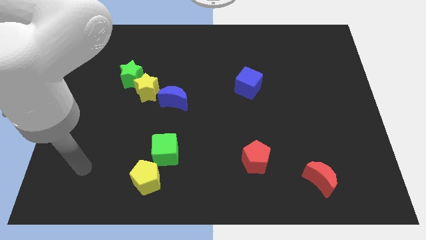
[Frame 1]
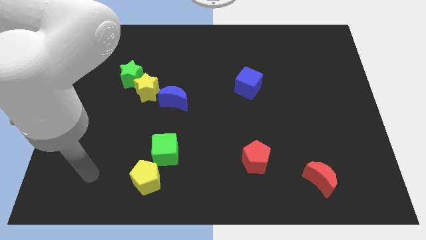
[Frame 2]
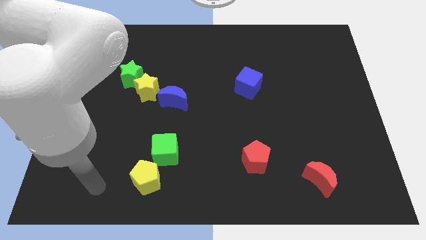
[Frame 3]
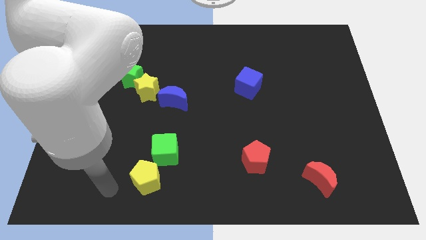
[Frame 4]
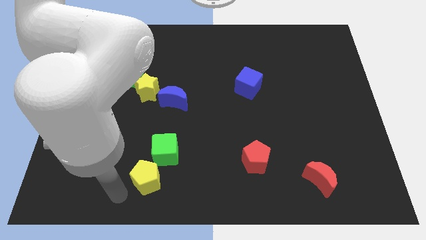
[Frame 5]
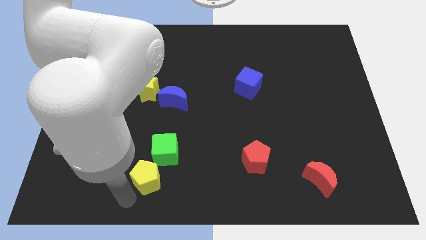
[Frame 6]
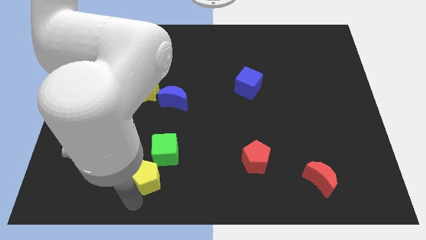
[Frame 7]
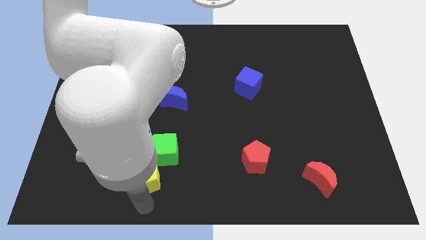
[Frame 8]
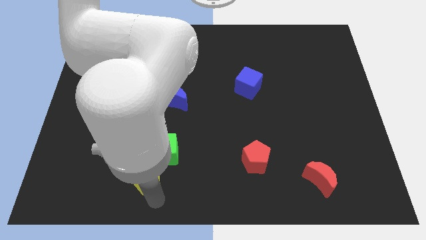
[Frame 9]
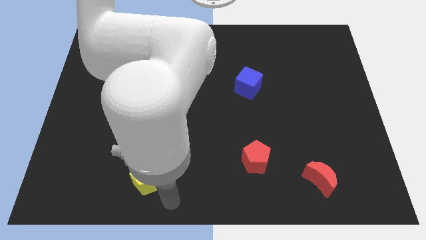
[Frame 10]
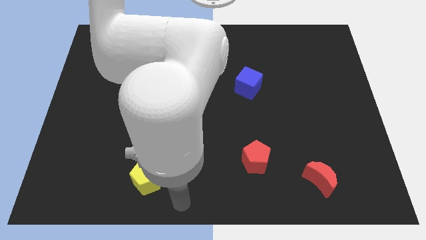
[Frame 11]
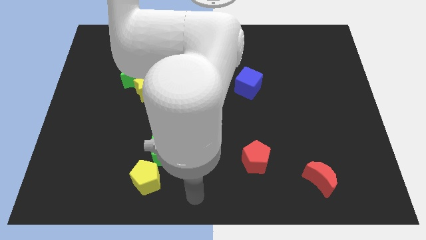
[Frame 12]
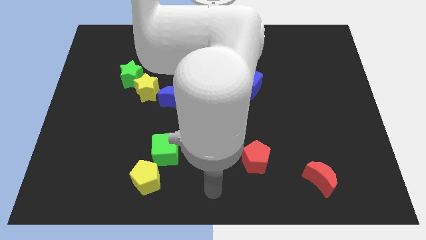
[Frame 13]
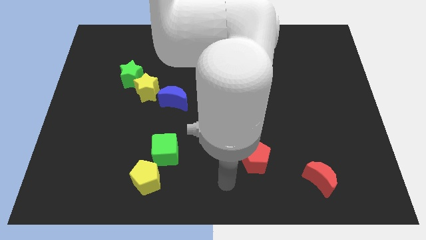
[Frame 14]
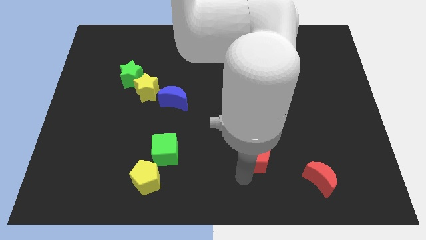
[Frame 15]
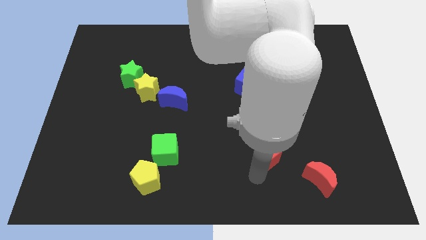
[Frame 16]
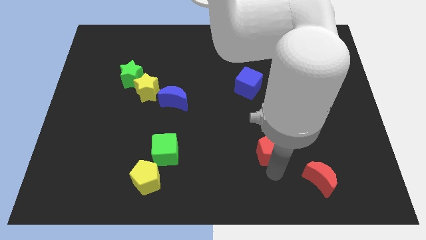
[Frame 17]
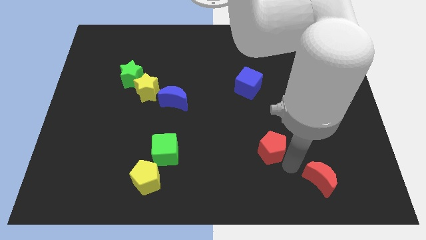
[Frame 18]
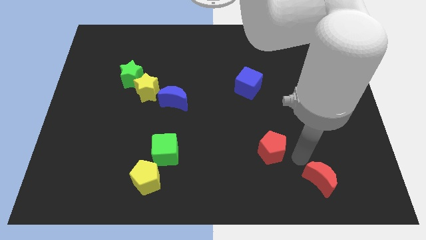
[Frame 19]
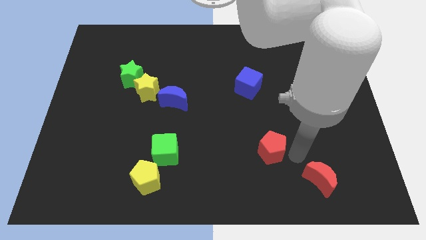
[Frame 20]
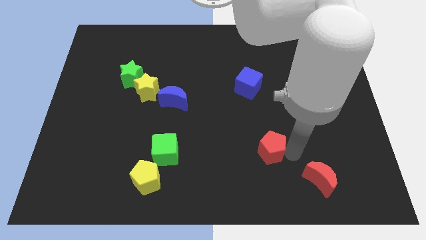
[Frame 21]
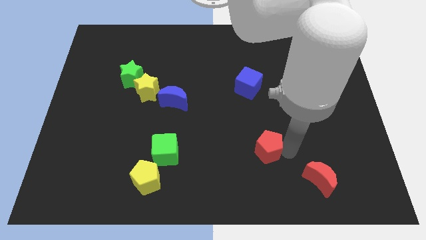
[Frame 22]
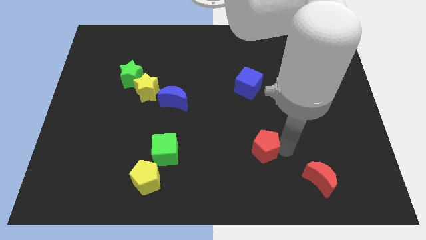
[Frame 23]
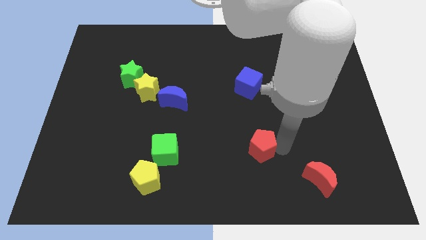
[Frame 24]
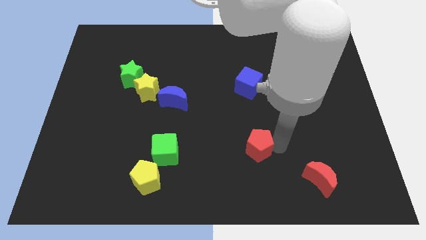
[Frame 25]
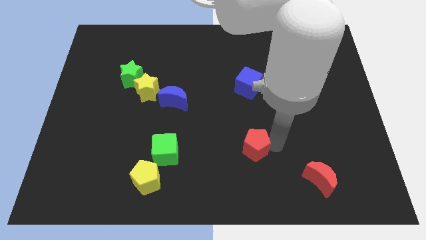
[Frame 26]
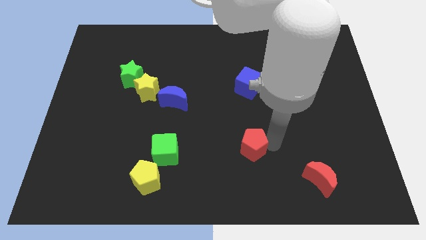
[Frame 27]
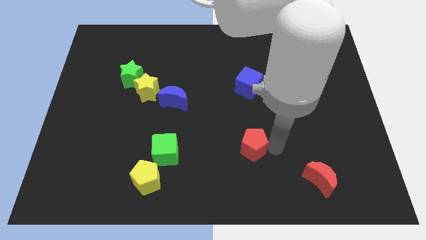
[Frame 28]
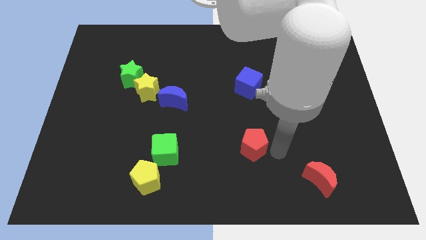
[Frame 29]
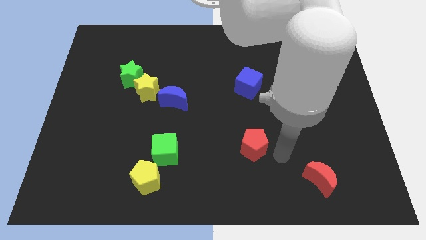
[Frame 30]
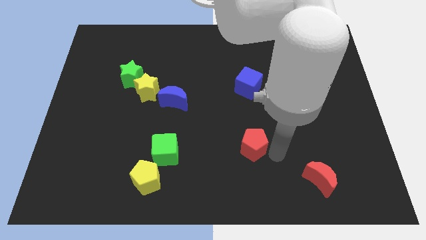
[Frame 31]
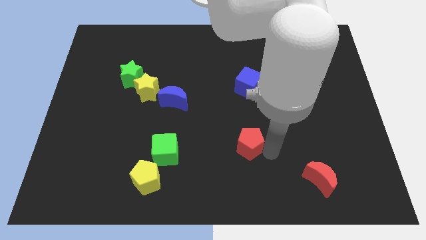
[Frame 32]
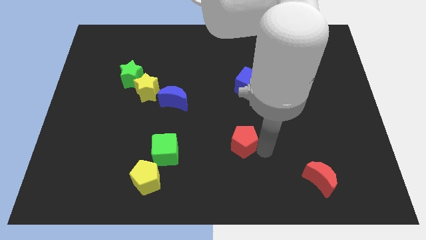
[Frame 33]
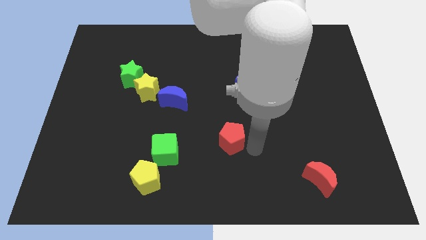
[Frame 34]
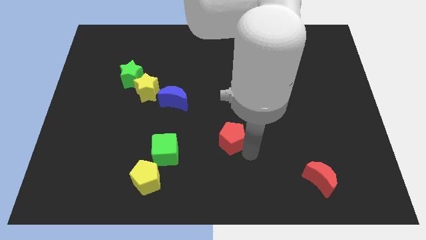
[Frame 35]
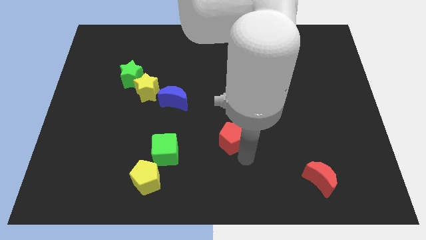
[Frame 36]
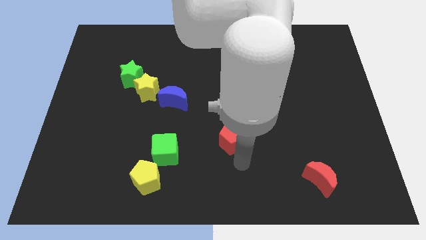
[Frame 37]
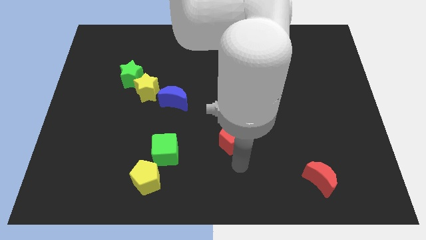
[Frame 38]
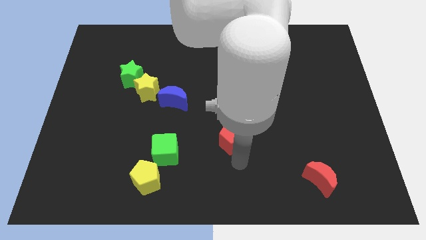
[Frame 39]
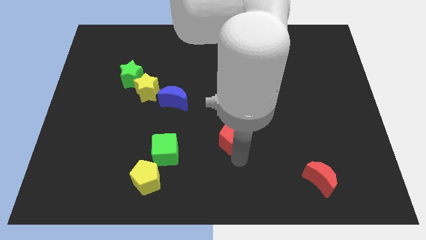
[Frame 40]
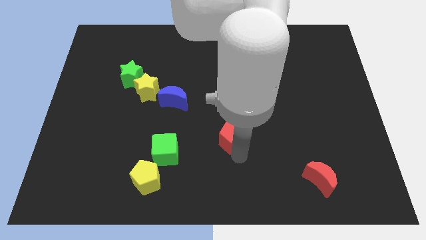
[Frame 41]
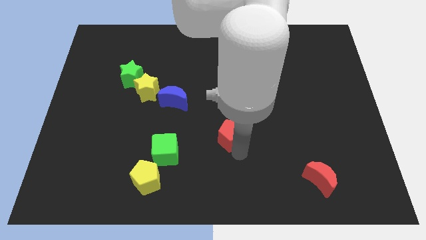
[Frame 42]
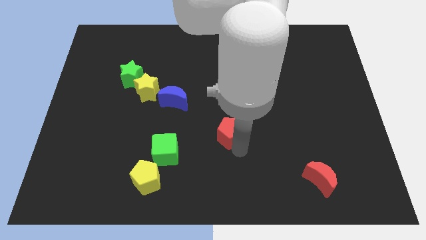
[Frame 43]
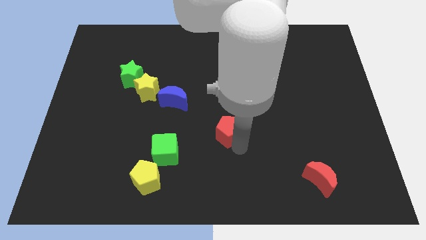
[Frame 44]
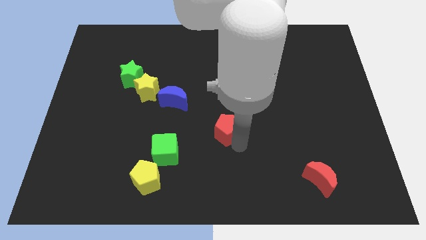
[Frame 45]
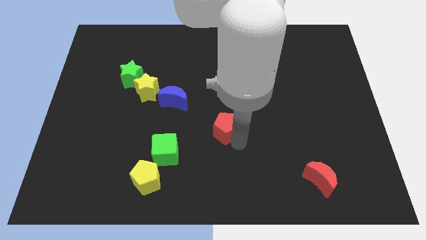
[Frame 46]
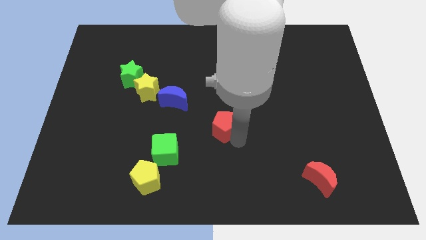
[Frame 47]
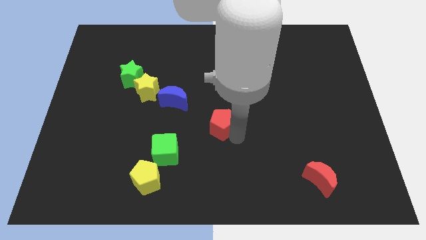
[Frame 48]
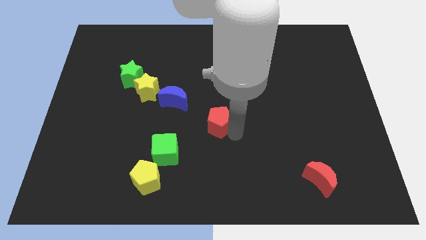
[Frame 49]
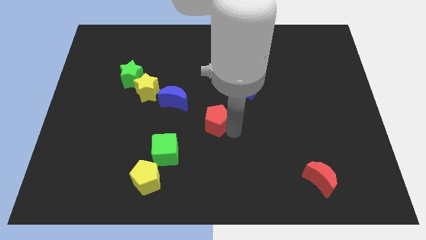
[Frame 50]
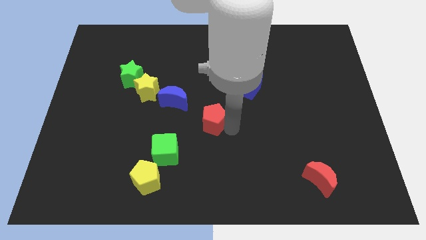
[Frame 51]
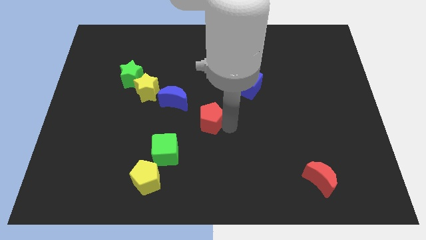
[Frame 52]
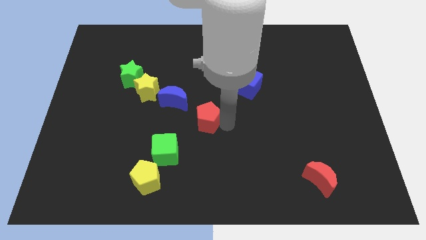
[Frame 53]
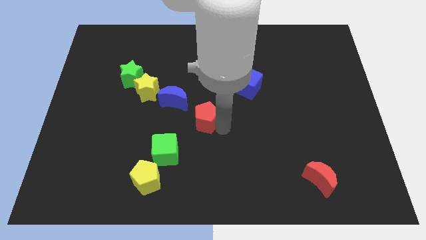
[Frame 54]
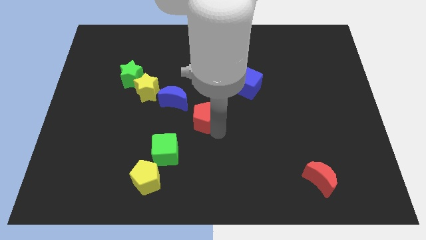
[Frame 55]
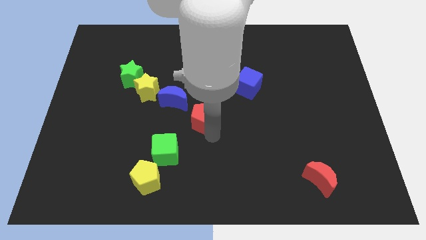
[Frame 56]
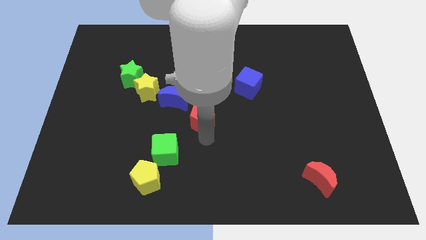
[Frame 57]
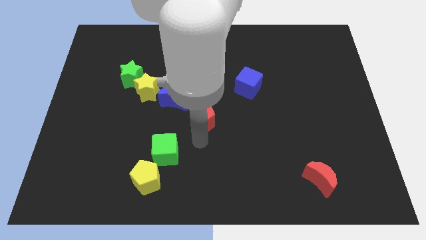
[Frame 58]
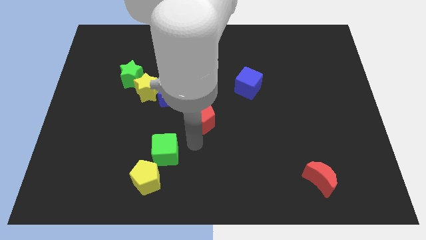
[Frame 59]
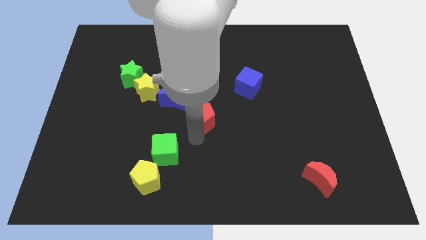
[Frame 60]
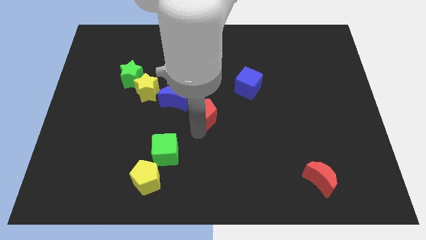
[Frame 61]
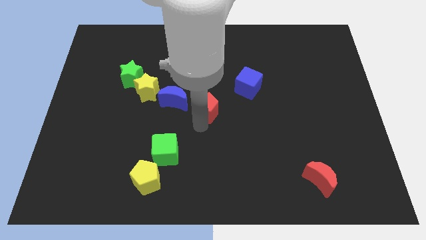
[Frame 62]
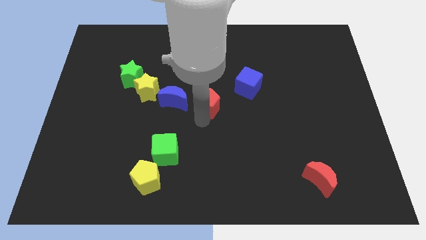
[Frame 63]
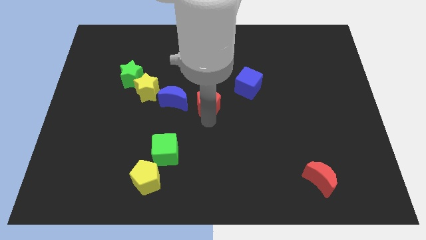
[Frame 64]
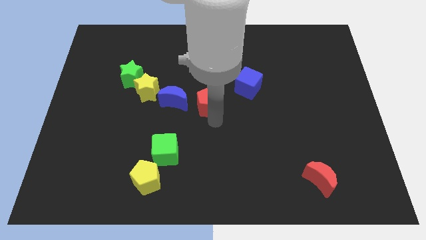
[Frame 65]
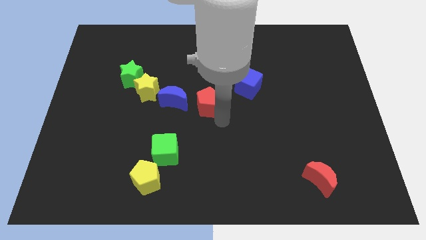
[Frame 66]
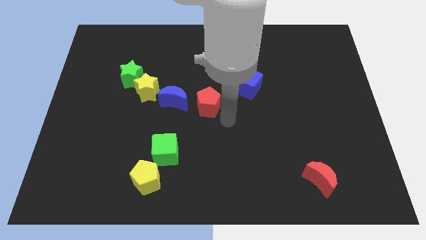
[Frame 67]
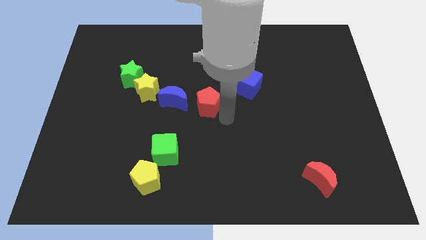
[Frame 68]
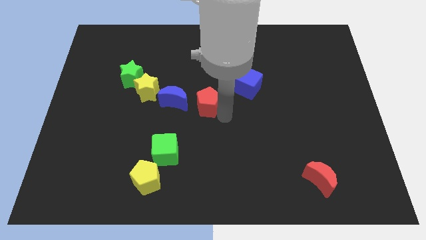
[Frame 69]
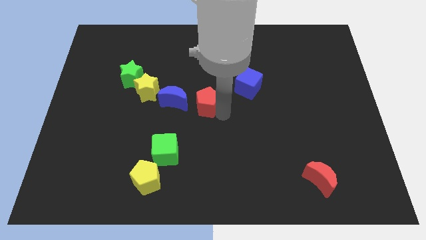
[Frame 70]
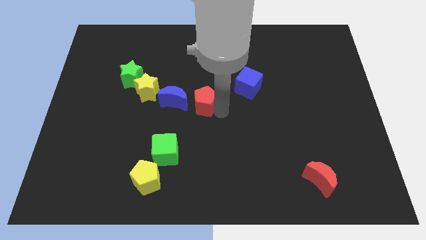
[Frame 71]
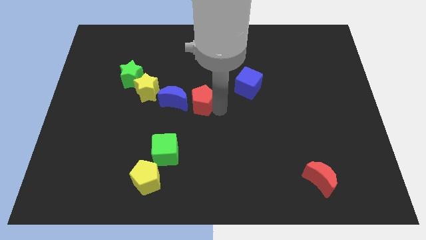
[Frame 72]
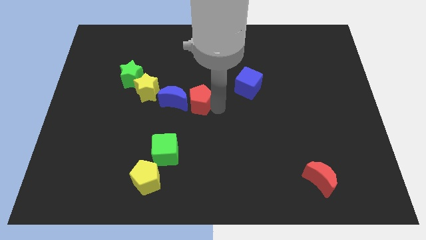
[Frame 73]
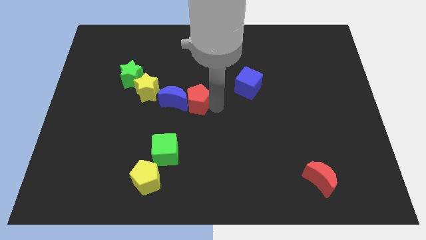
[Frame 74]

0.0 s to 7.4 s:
move the red pentagon up and to the left
